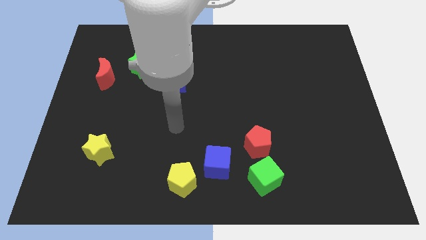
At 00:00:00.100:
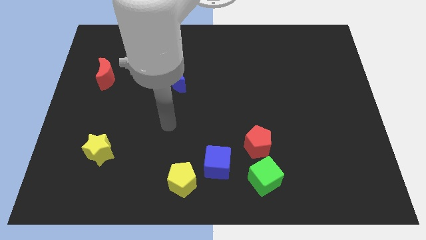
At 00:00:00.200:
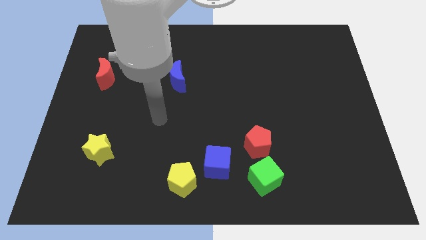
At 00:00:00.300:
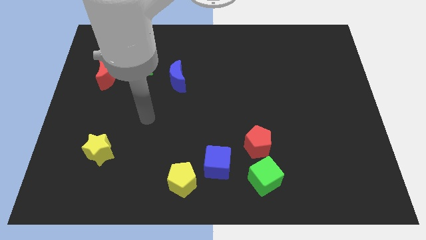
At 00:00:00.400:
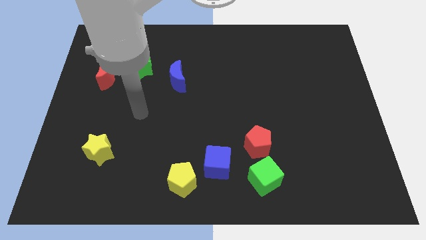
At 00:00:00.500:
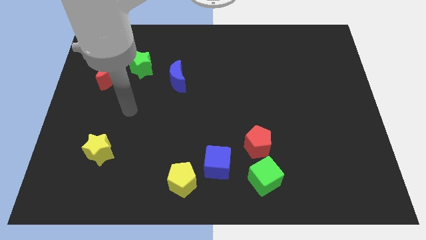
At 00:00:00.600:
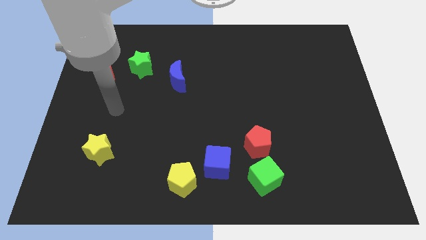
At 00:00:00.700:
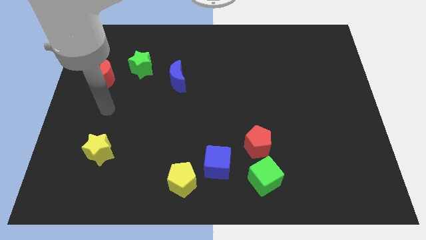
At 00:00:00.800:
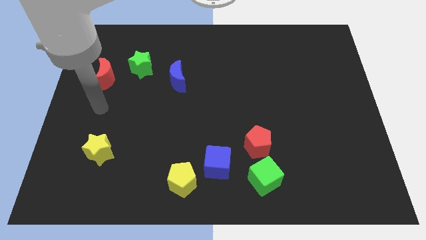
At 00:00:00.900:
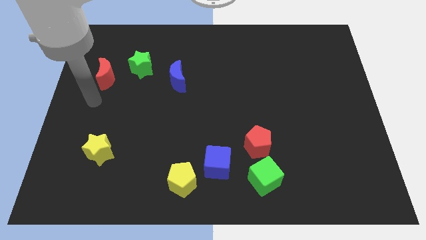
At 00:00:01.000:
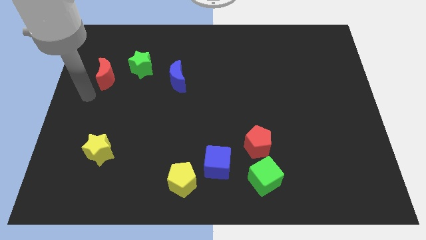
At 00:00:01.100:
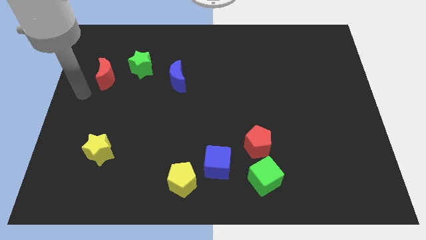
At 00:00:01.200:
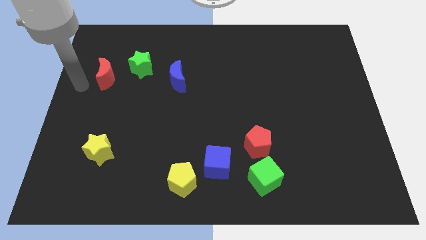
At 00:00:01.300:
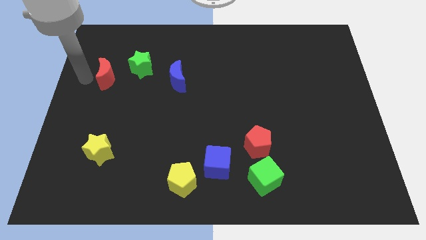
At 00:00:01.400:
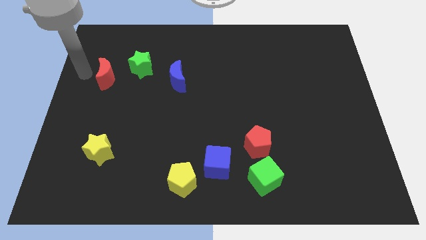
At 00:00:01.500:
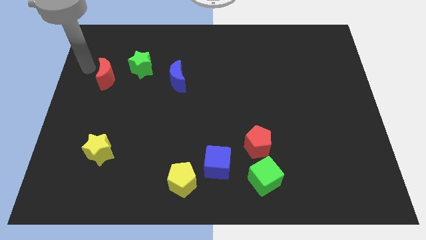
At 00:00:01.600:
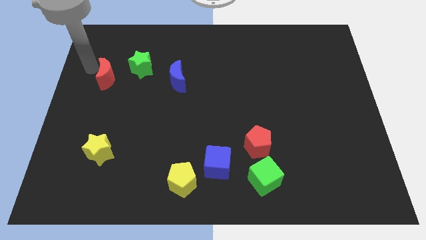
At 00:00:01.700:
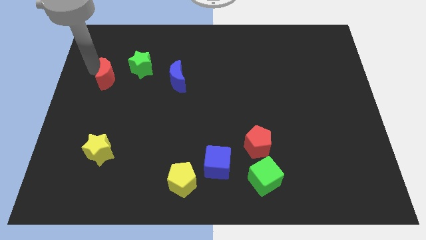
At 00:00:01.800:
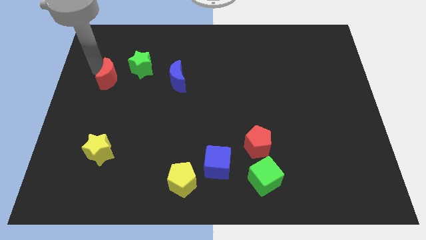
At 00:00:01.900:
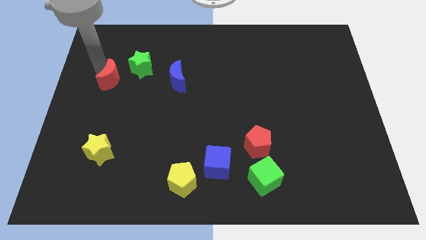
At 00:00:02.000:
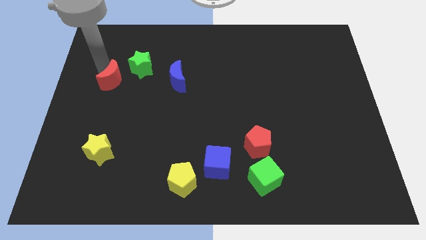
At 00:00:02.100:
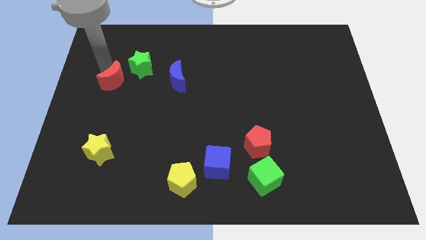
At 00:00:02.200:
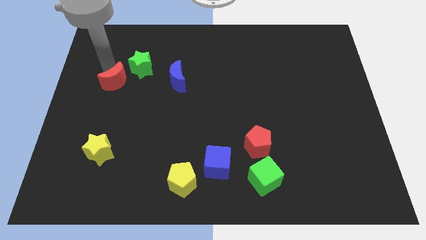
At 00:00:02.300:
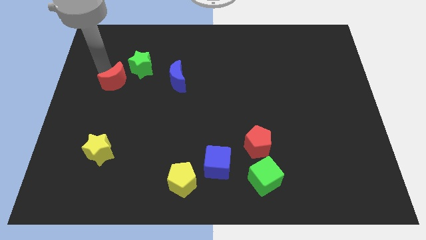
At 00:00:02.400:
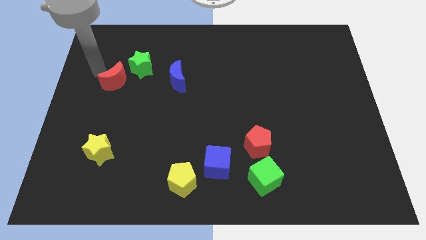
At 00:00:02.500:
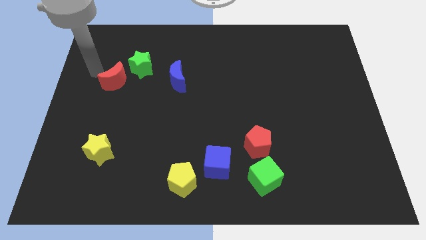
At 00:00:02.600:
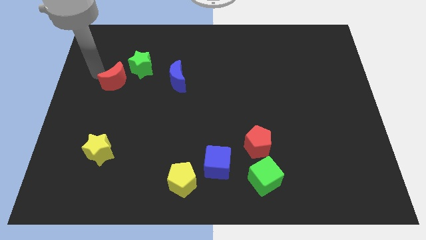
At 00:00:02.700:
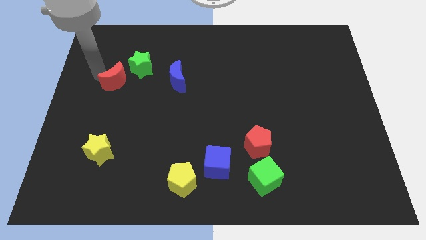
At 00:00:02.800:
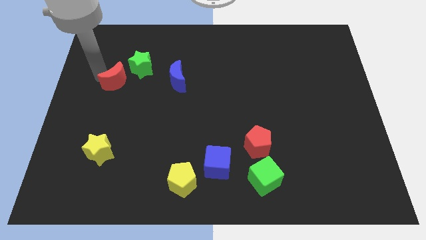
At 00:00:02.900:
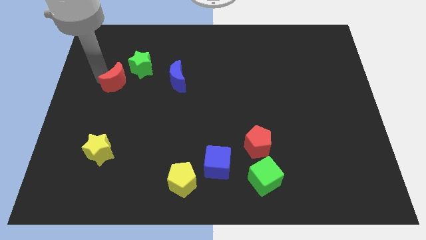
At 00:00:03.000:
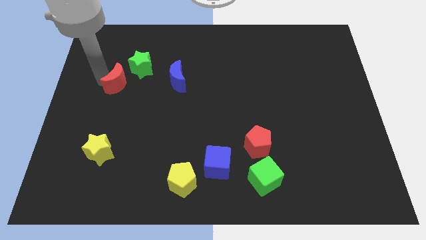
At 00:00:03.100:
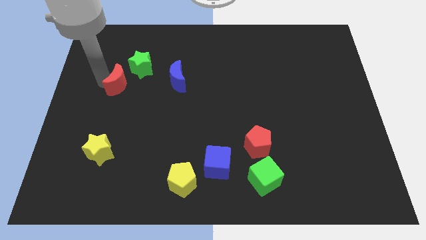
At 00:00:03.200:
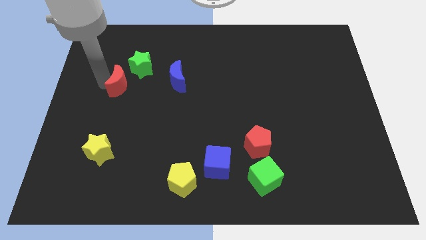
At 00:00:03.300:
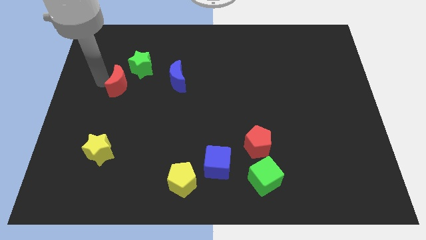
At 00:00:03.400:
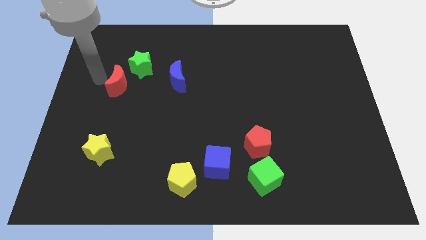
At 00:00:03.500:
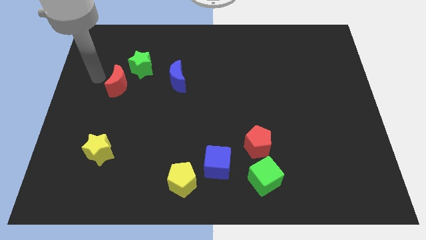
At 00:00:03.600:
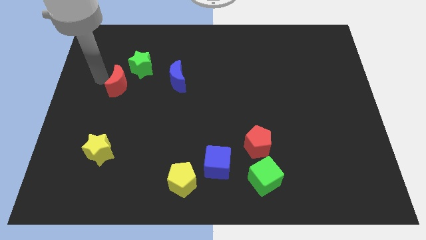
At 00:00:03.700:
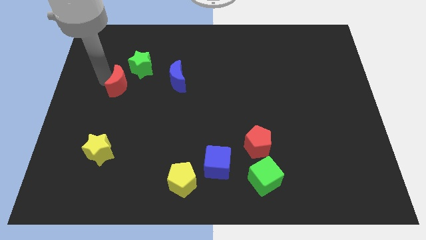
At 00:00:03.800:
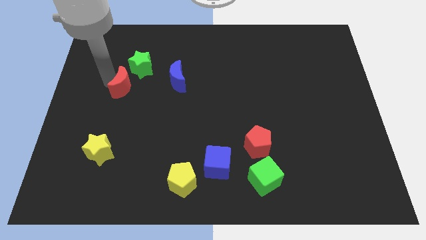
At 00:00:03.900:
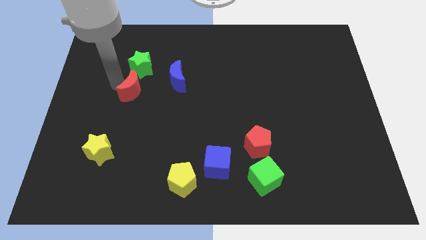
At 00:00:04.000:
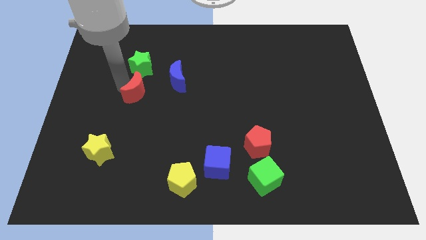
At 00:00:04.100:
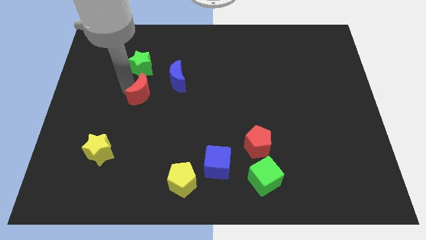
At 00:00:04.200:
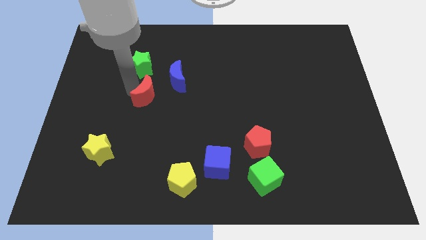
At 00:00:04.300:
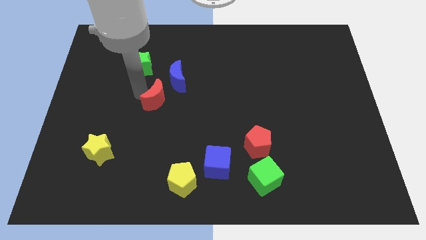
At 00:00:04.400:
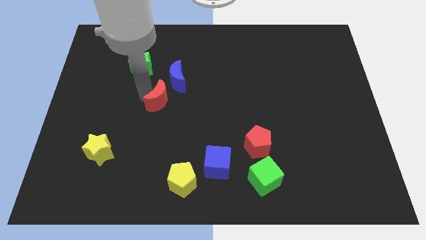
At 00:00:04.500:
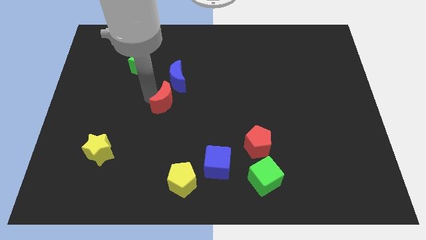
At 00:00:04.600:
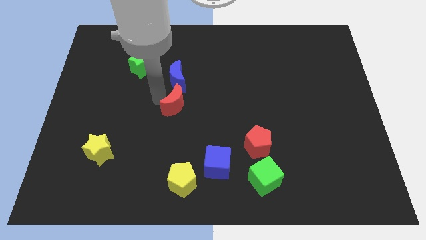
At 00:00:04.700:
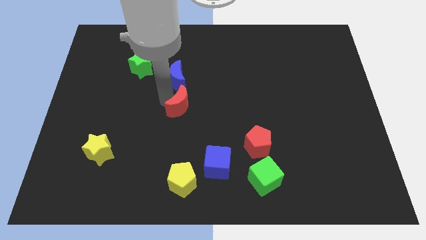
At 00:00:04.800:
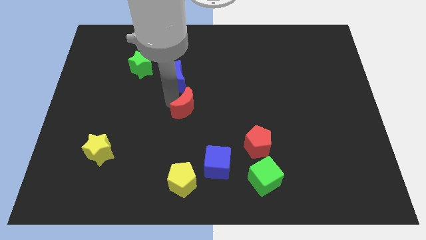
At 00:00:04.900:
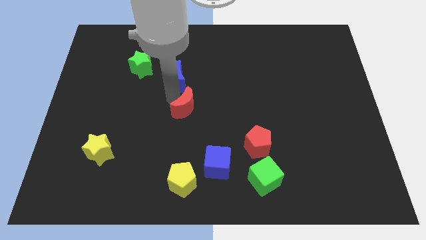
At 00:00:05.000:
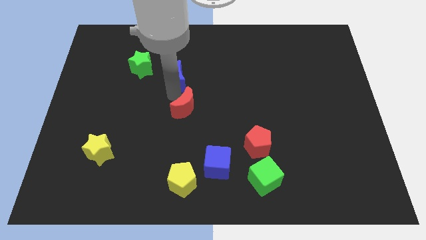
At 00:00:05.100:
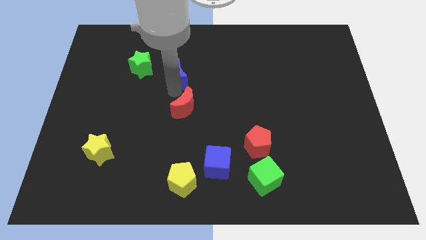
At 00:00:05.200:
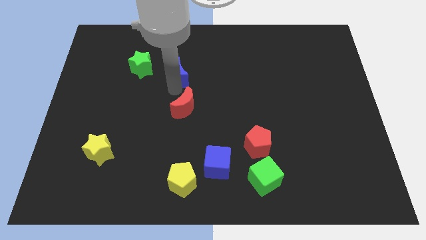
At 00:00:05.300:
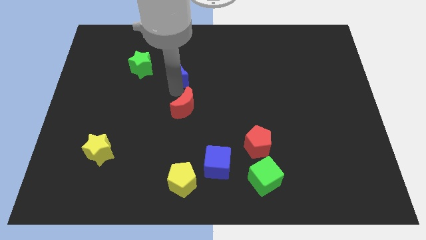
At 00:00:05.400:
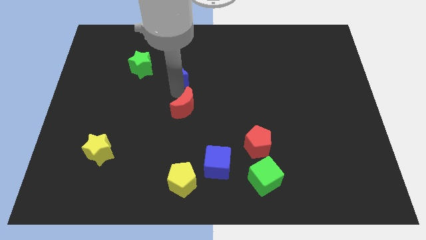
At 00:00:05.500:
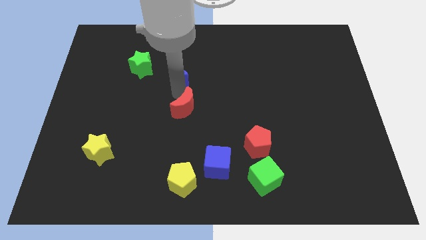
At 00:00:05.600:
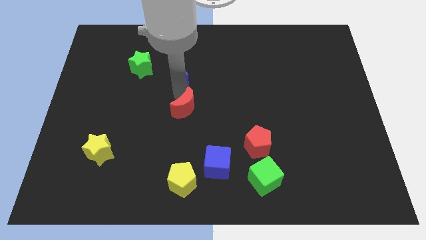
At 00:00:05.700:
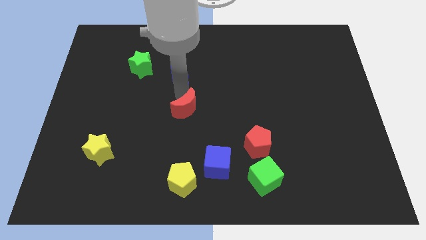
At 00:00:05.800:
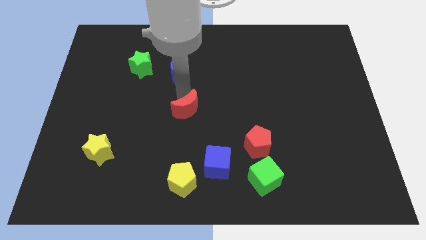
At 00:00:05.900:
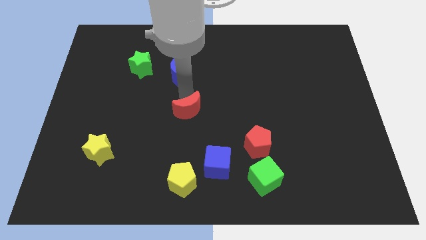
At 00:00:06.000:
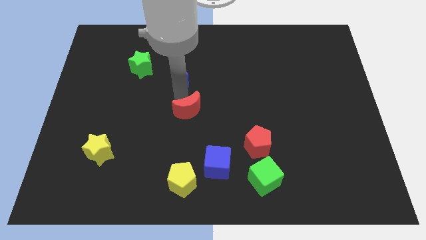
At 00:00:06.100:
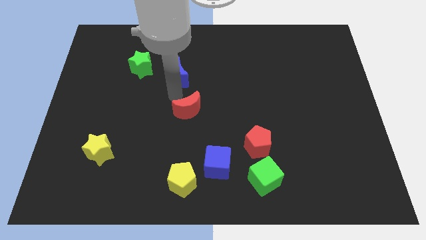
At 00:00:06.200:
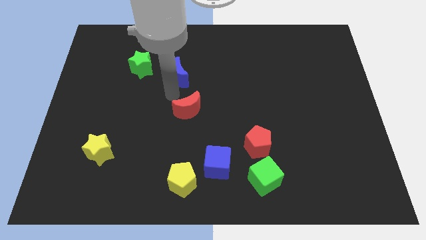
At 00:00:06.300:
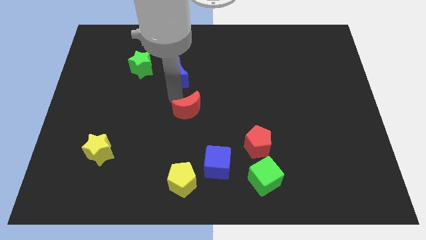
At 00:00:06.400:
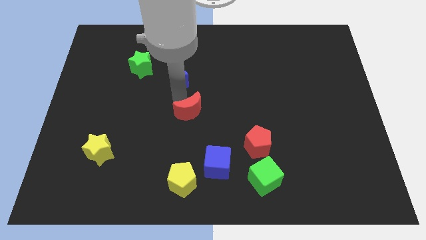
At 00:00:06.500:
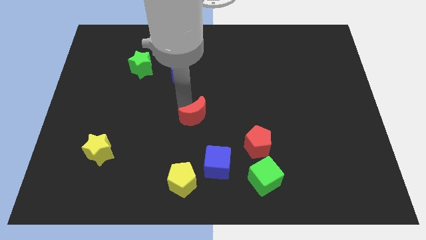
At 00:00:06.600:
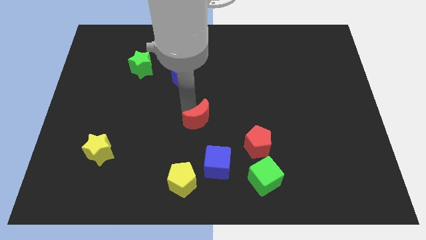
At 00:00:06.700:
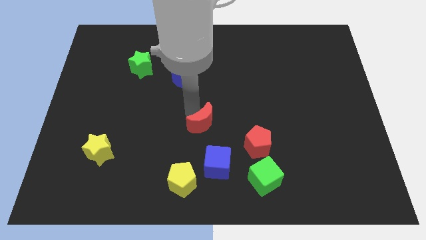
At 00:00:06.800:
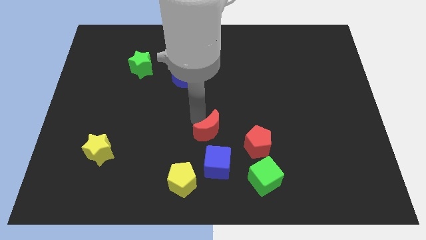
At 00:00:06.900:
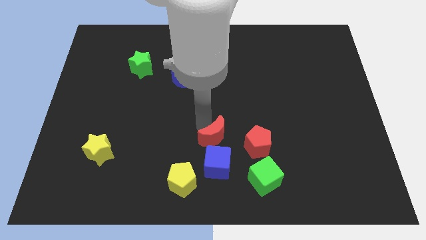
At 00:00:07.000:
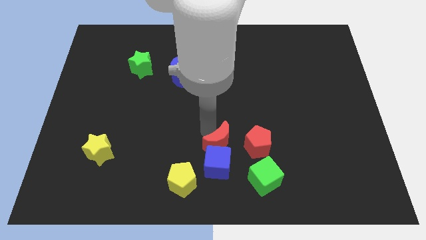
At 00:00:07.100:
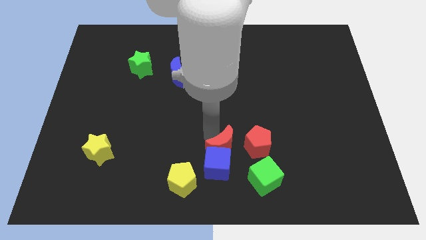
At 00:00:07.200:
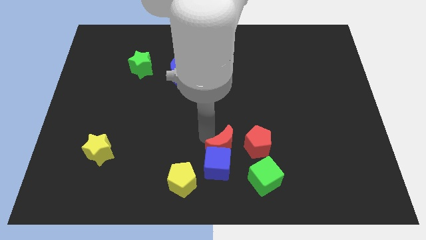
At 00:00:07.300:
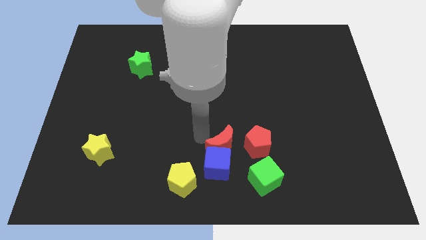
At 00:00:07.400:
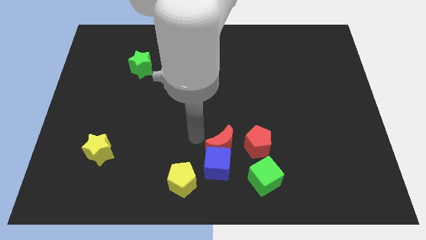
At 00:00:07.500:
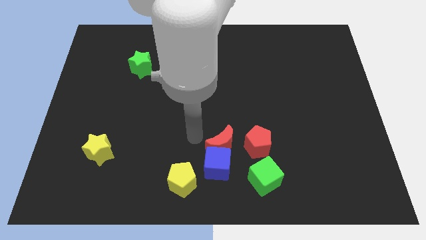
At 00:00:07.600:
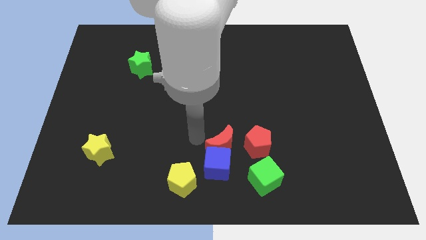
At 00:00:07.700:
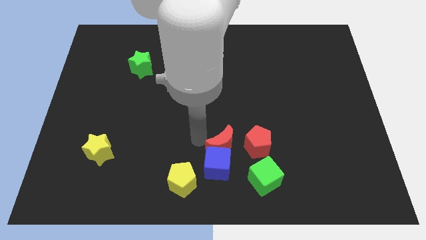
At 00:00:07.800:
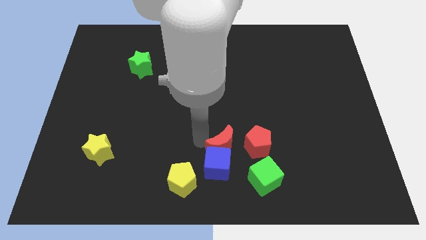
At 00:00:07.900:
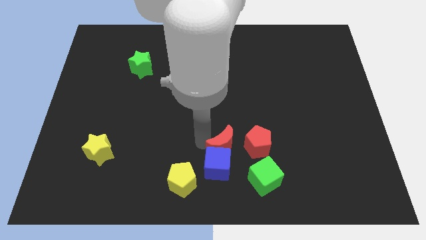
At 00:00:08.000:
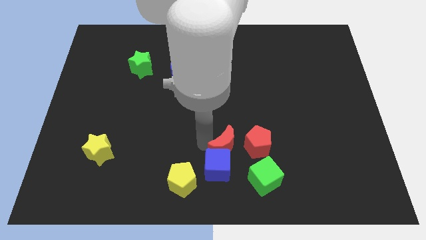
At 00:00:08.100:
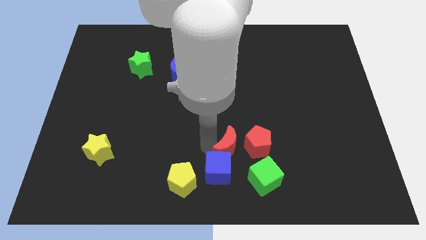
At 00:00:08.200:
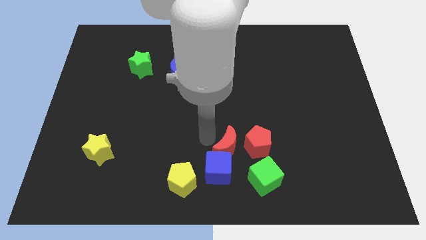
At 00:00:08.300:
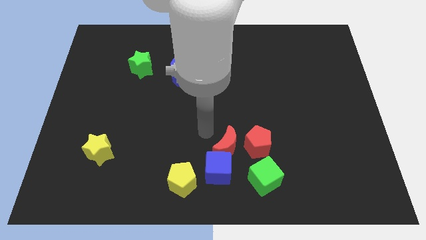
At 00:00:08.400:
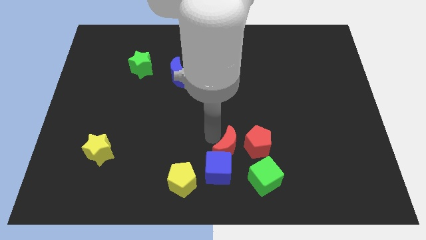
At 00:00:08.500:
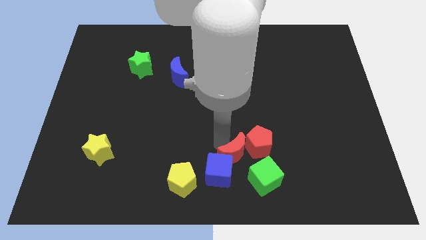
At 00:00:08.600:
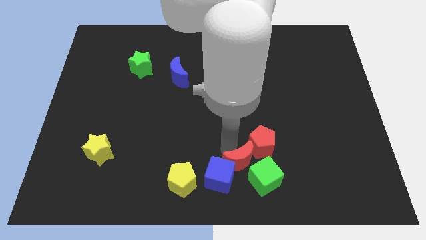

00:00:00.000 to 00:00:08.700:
put the red moon next to the green cube
